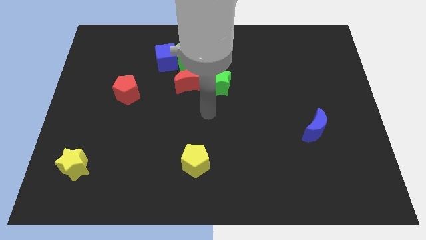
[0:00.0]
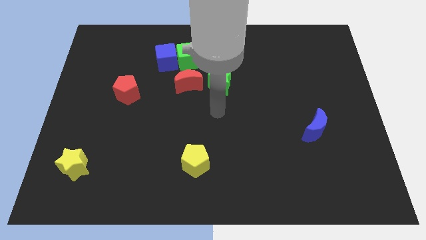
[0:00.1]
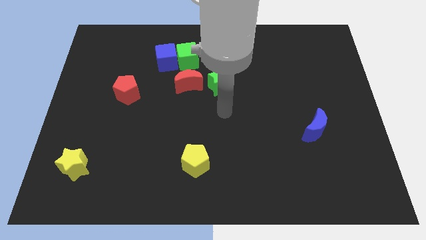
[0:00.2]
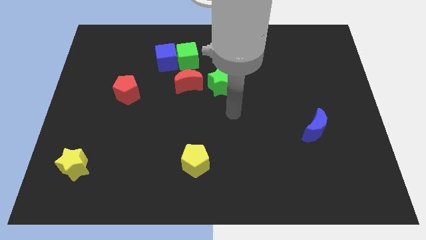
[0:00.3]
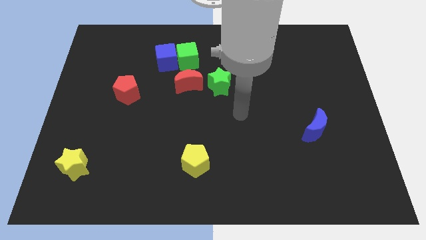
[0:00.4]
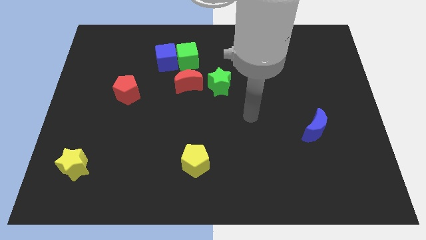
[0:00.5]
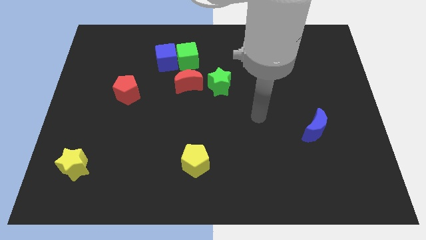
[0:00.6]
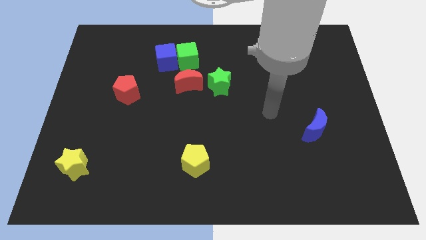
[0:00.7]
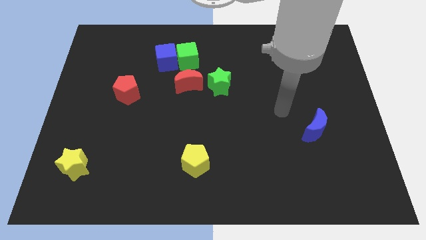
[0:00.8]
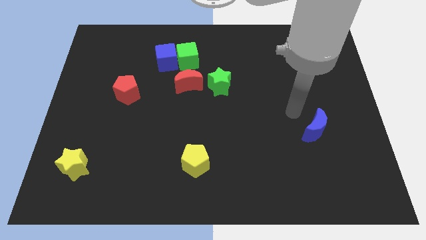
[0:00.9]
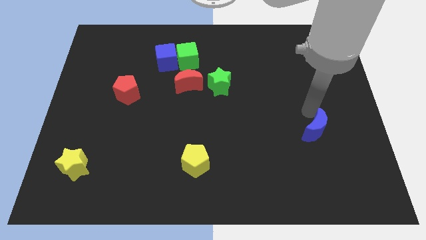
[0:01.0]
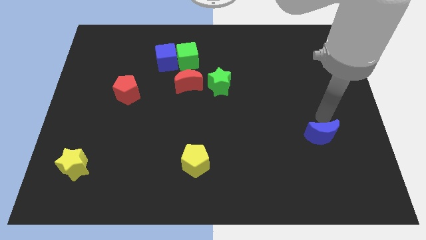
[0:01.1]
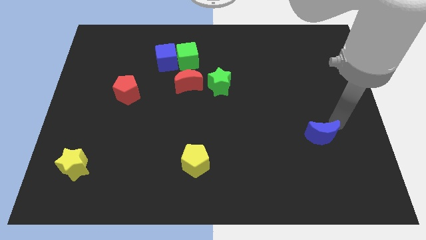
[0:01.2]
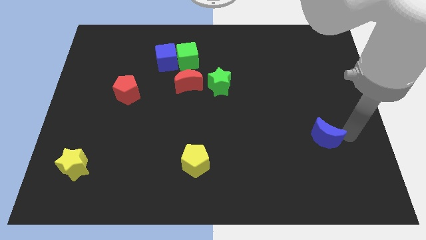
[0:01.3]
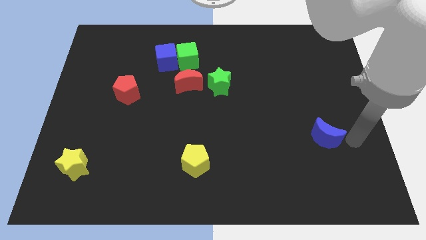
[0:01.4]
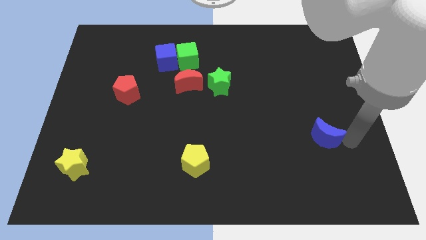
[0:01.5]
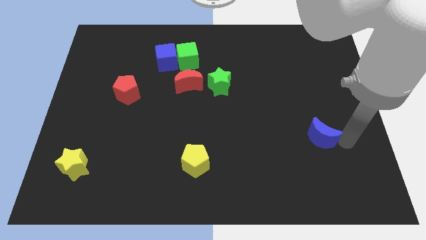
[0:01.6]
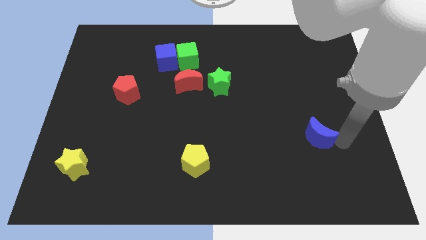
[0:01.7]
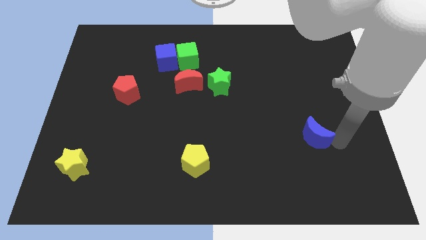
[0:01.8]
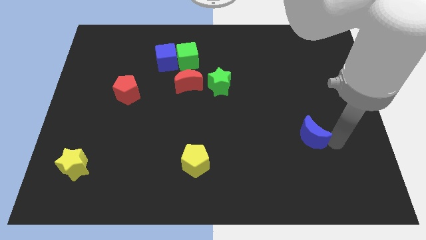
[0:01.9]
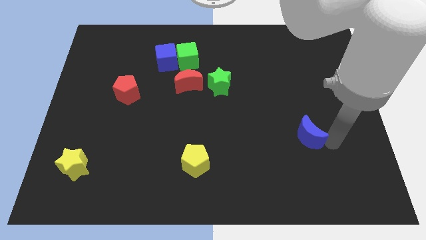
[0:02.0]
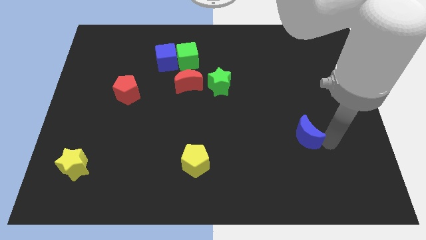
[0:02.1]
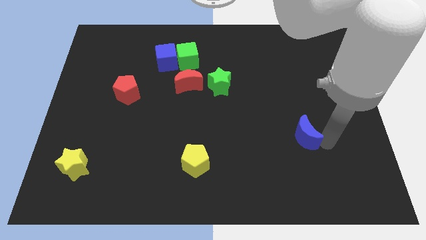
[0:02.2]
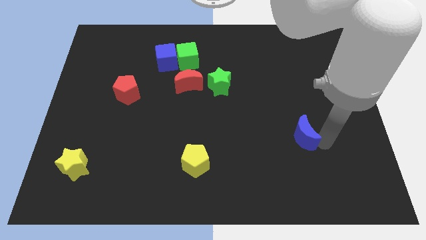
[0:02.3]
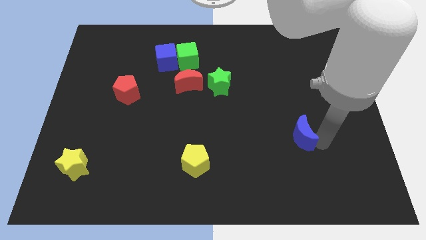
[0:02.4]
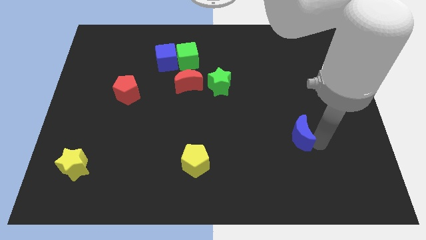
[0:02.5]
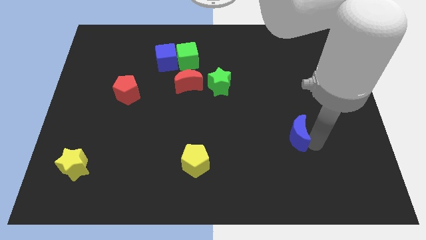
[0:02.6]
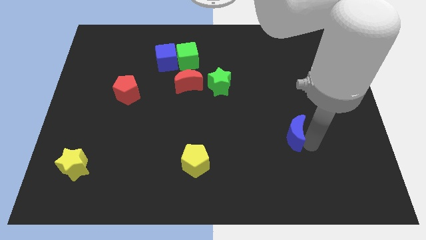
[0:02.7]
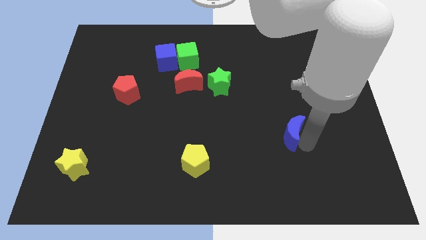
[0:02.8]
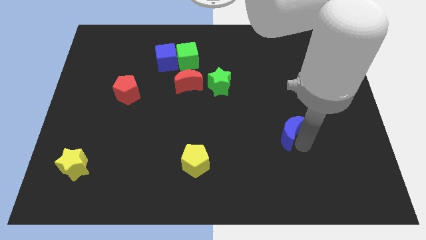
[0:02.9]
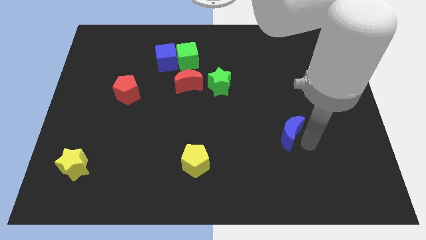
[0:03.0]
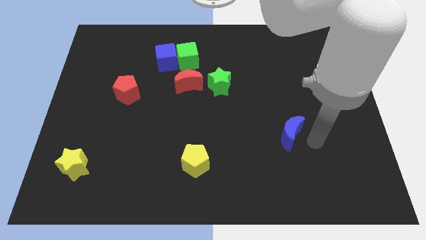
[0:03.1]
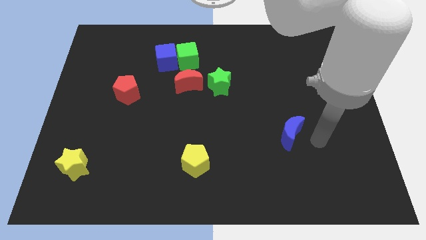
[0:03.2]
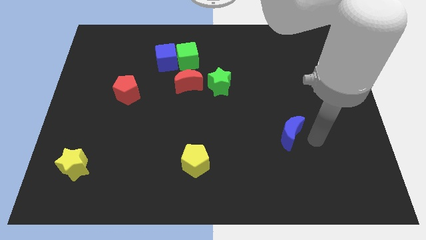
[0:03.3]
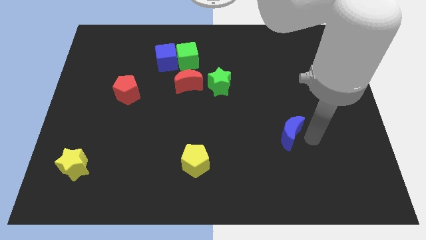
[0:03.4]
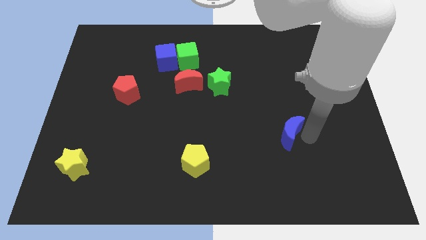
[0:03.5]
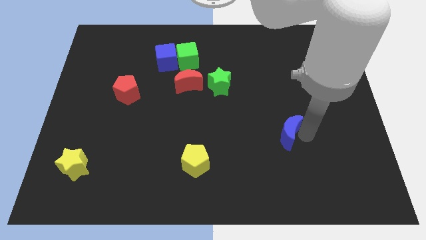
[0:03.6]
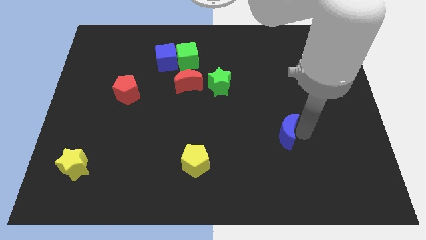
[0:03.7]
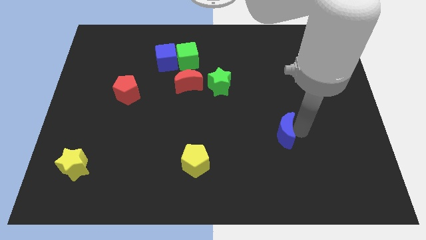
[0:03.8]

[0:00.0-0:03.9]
slightly slide the blue moon to the left

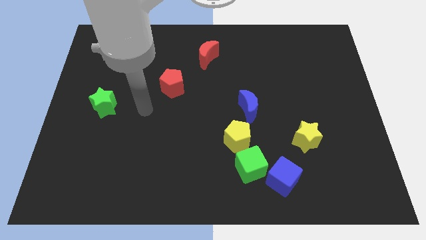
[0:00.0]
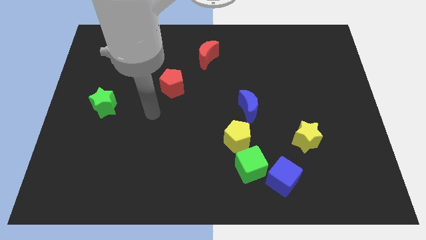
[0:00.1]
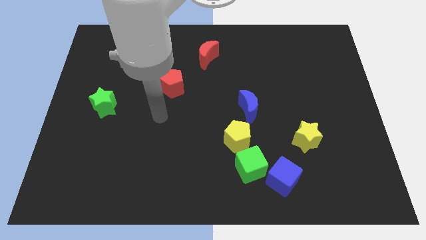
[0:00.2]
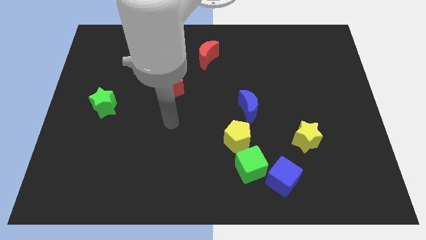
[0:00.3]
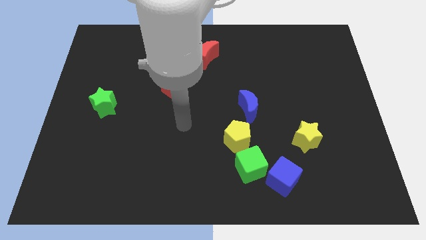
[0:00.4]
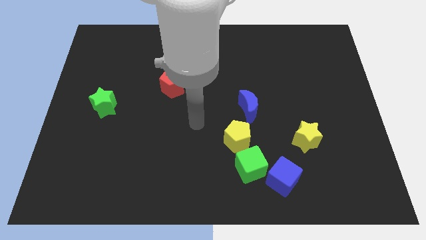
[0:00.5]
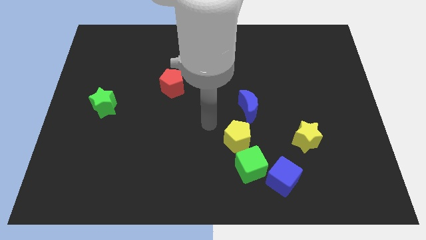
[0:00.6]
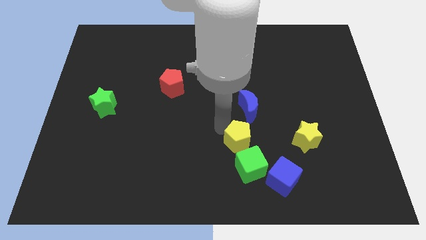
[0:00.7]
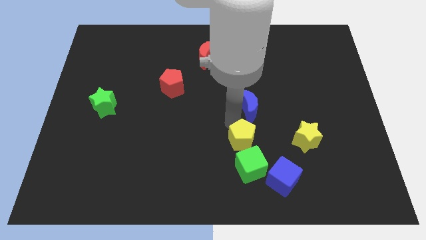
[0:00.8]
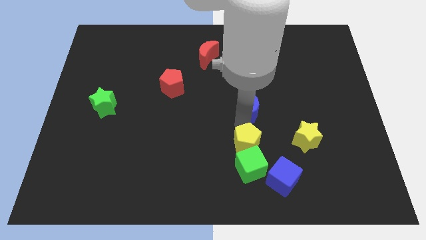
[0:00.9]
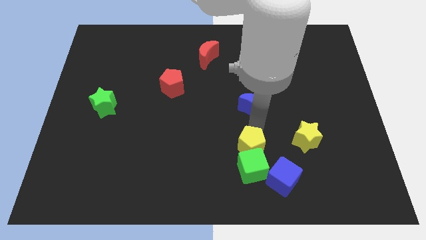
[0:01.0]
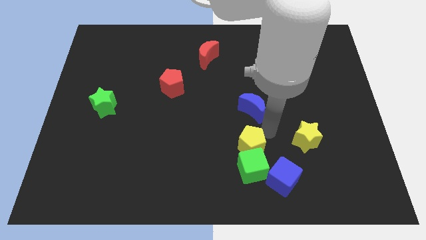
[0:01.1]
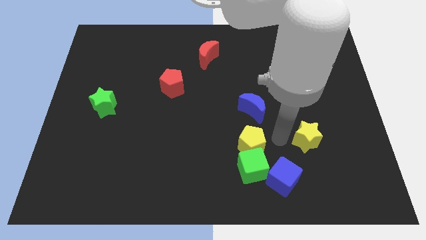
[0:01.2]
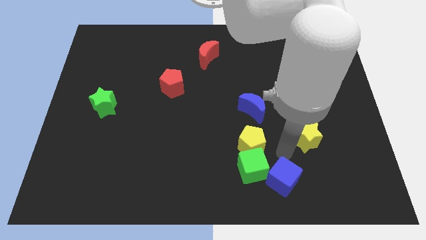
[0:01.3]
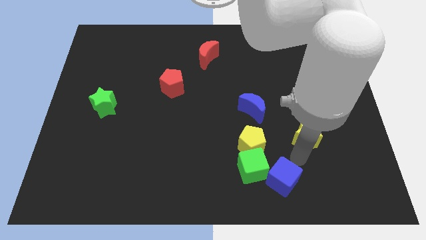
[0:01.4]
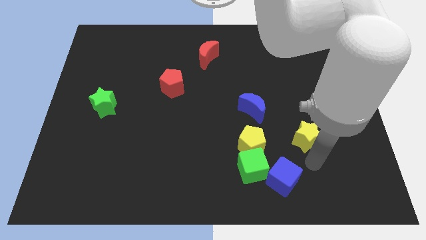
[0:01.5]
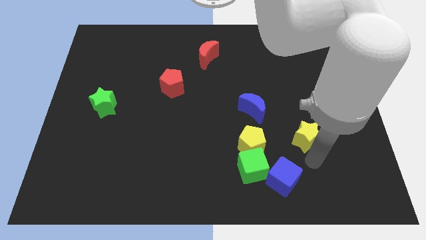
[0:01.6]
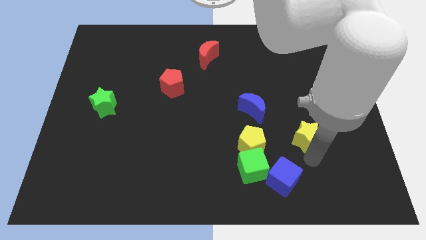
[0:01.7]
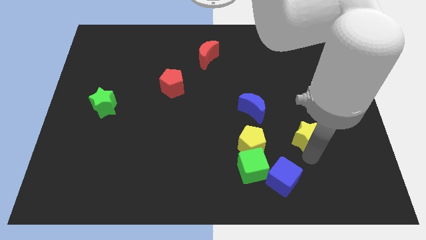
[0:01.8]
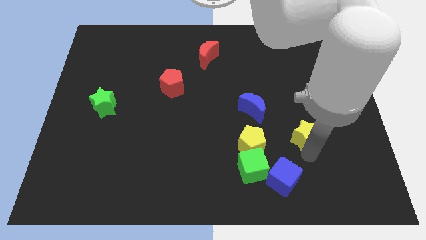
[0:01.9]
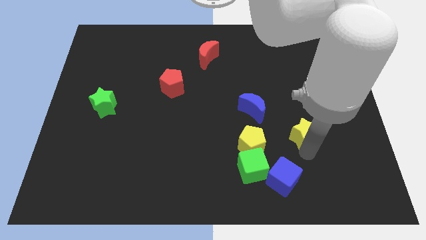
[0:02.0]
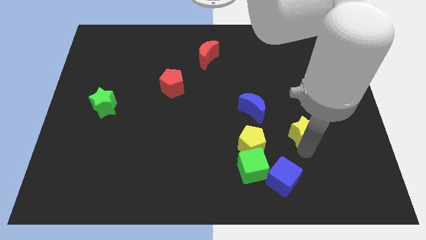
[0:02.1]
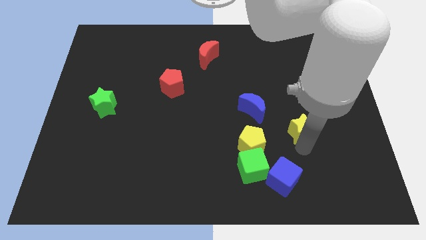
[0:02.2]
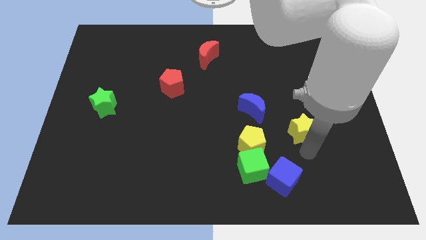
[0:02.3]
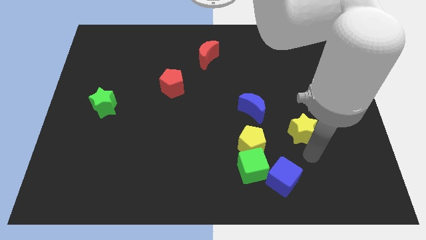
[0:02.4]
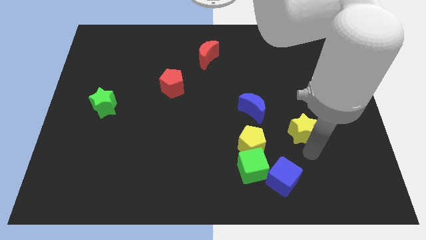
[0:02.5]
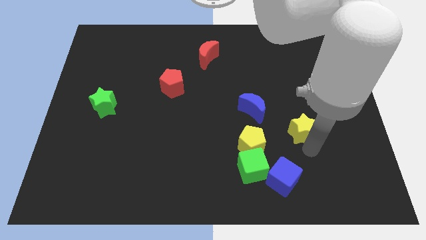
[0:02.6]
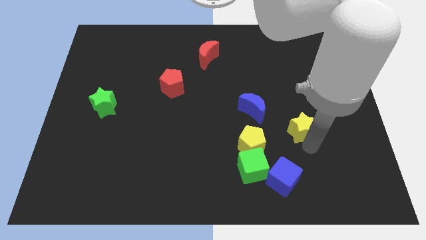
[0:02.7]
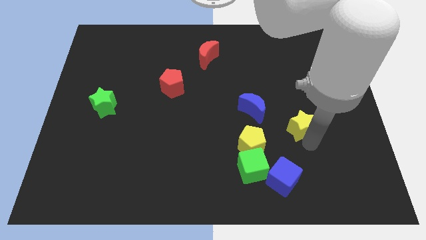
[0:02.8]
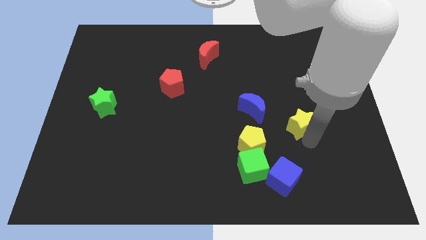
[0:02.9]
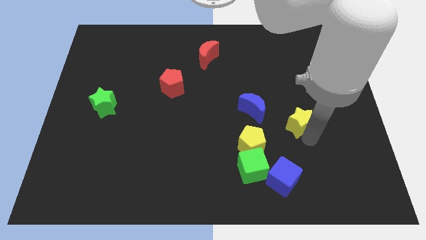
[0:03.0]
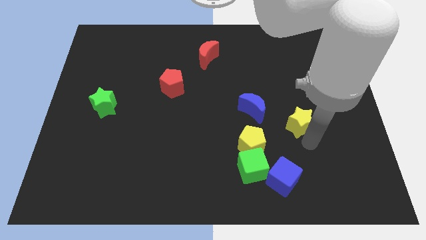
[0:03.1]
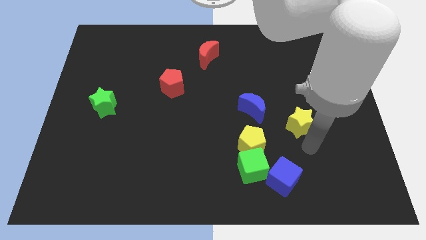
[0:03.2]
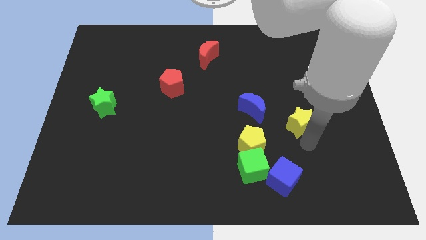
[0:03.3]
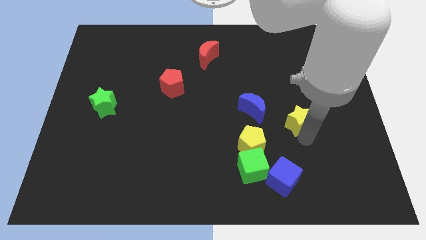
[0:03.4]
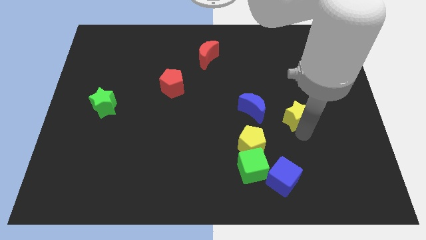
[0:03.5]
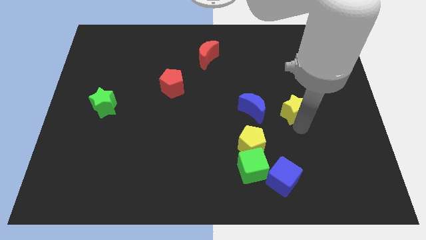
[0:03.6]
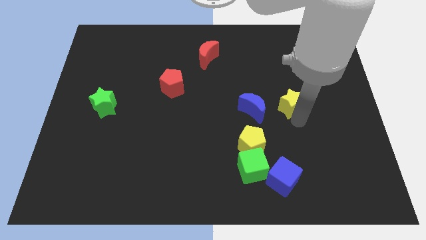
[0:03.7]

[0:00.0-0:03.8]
push the yellow star a little bit up and left

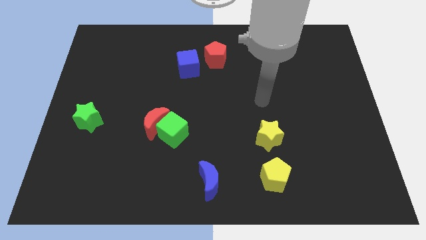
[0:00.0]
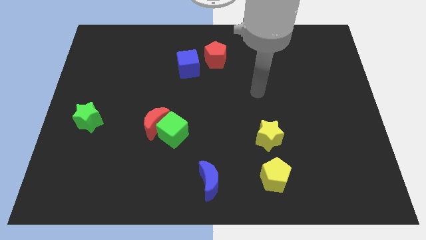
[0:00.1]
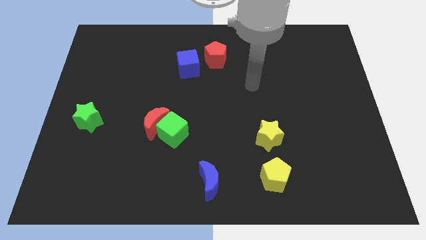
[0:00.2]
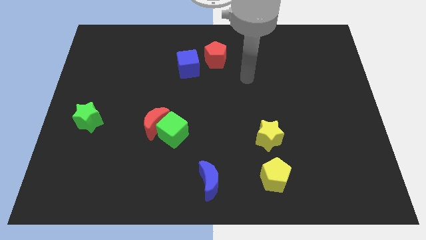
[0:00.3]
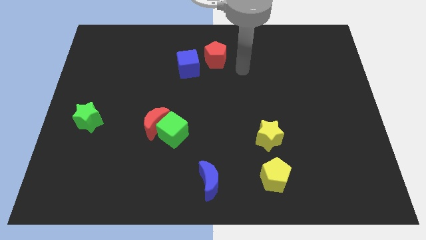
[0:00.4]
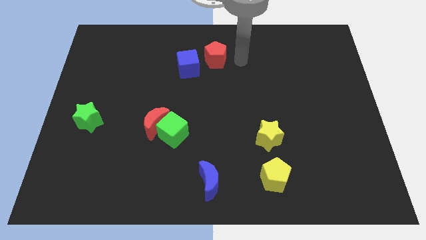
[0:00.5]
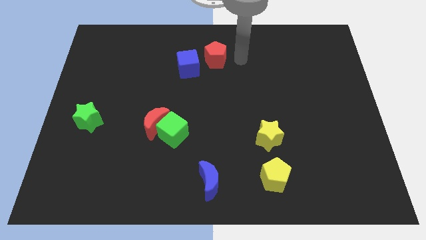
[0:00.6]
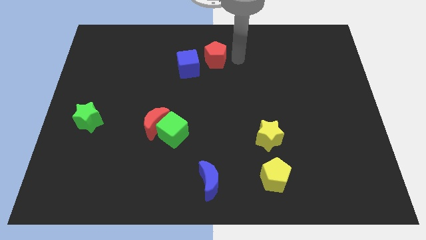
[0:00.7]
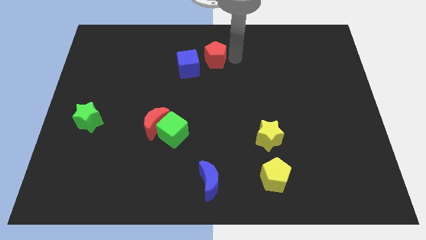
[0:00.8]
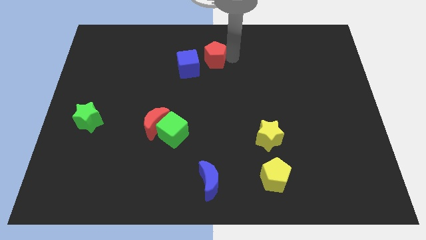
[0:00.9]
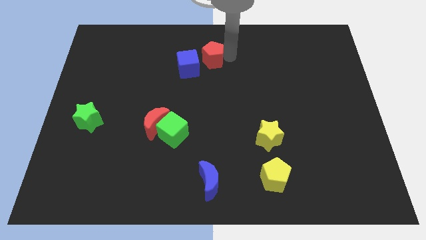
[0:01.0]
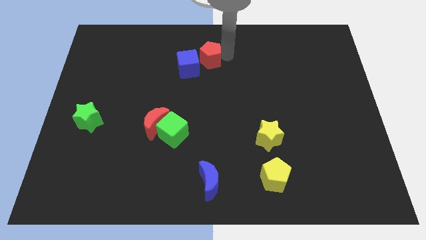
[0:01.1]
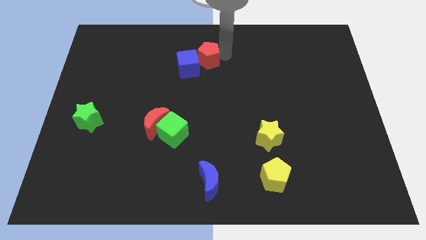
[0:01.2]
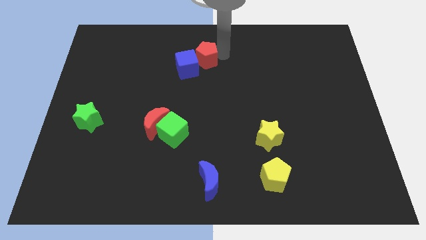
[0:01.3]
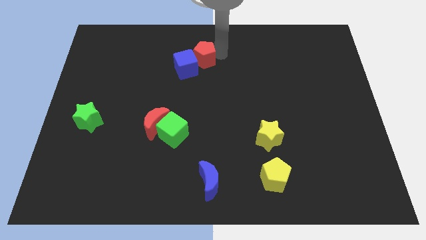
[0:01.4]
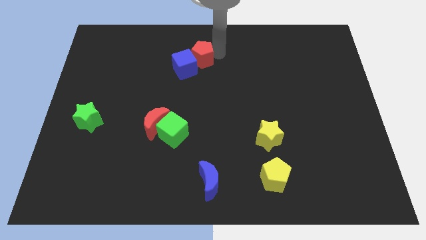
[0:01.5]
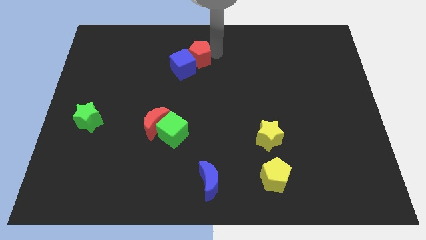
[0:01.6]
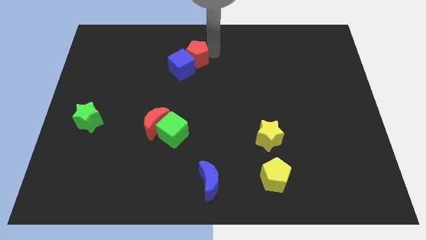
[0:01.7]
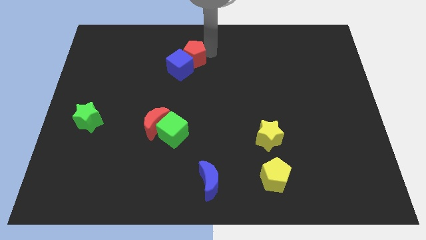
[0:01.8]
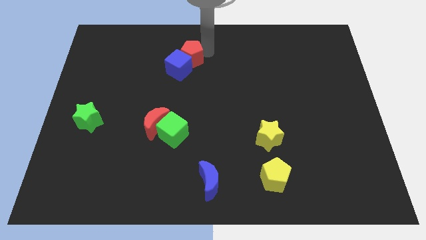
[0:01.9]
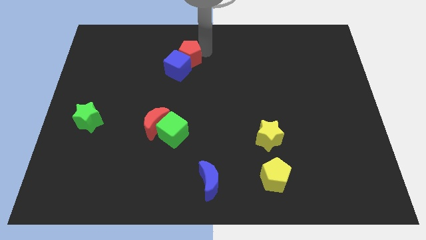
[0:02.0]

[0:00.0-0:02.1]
push the red pentagon to the left slightly
